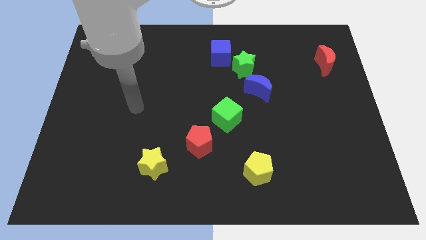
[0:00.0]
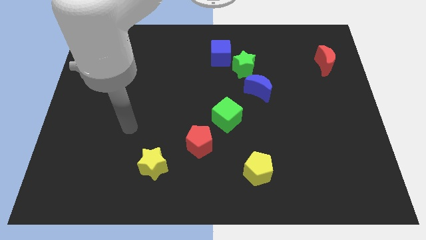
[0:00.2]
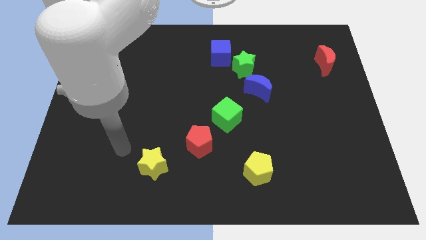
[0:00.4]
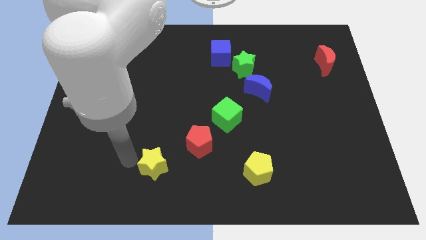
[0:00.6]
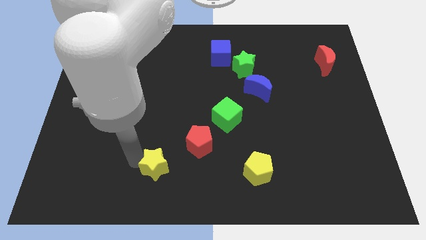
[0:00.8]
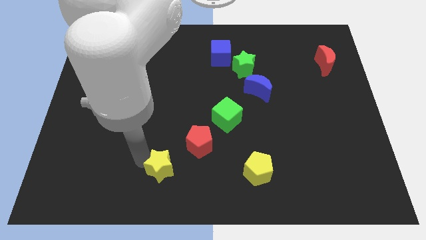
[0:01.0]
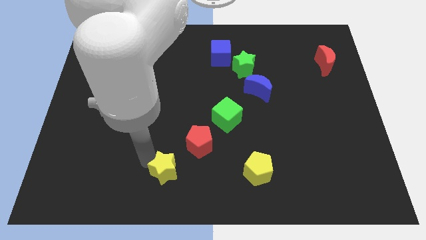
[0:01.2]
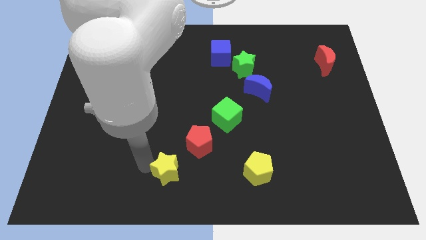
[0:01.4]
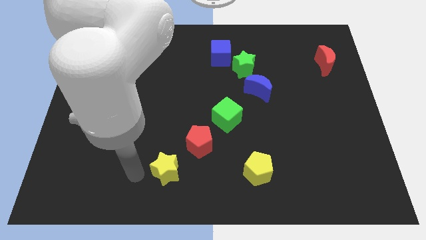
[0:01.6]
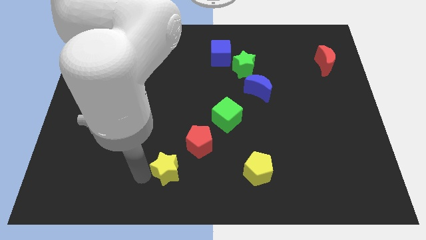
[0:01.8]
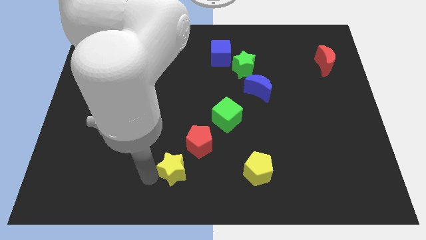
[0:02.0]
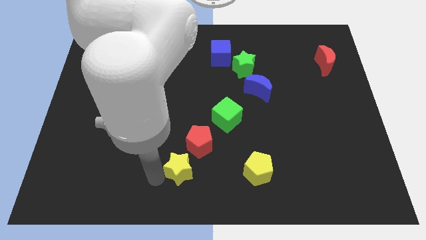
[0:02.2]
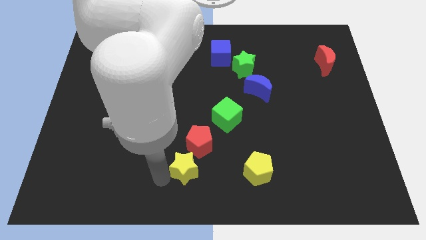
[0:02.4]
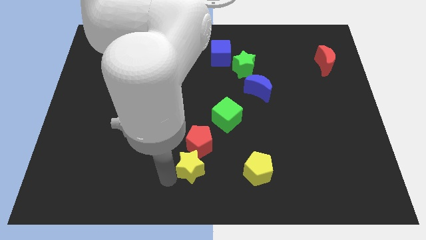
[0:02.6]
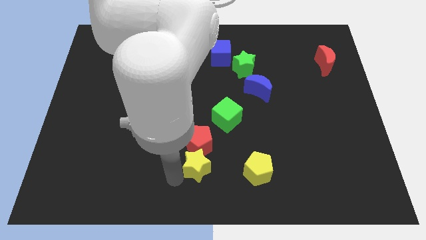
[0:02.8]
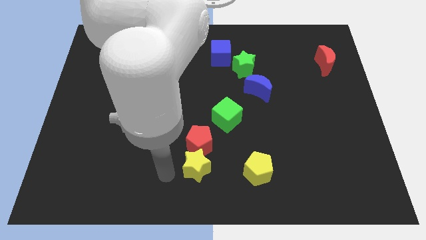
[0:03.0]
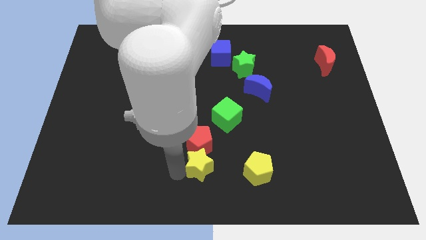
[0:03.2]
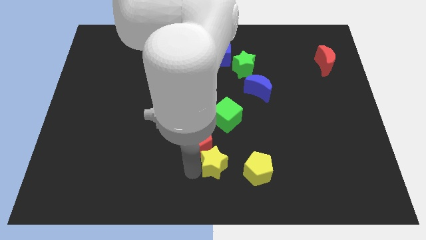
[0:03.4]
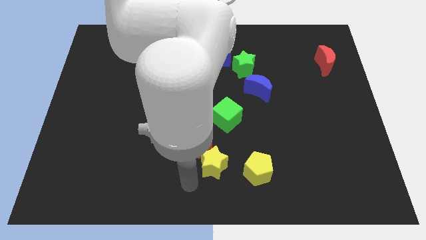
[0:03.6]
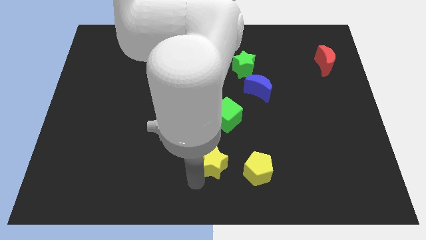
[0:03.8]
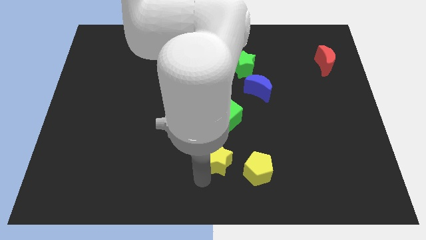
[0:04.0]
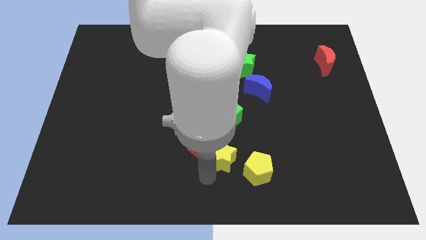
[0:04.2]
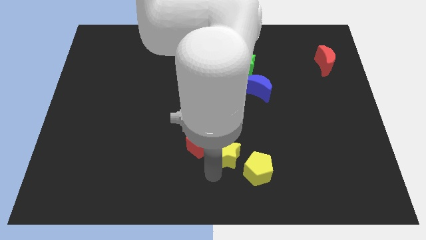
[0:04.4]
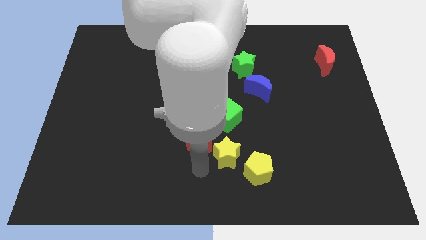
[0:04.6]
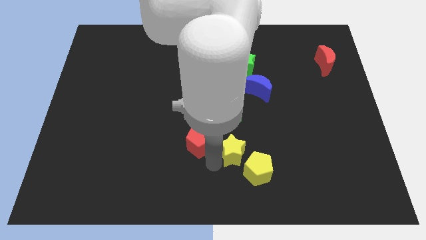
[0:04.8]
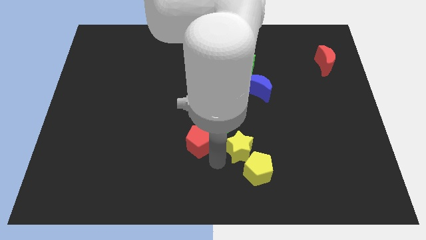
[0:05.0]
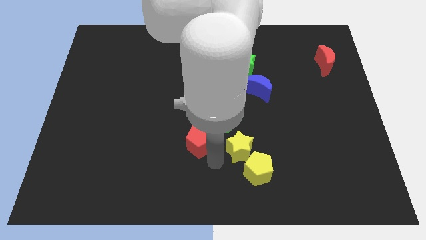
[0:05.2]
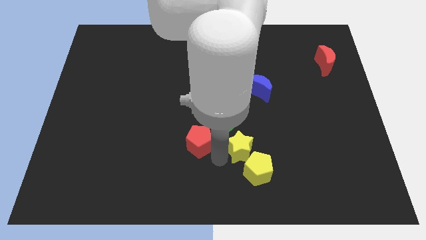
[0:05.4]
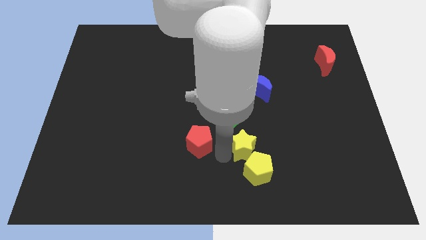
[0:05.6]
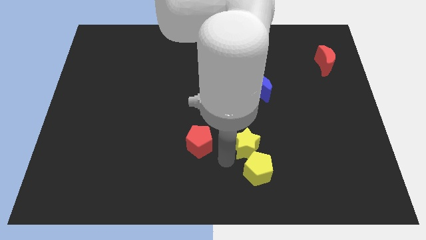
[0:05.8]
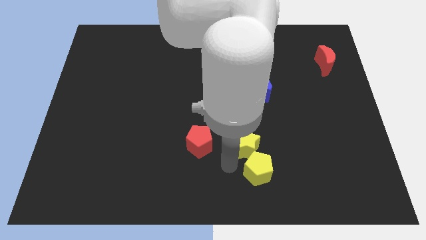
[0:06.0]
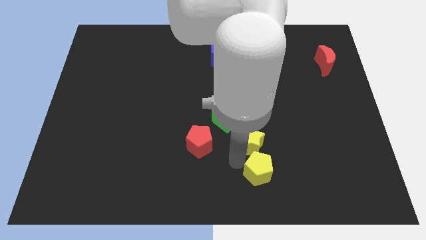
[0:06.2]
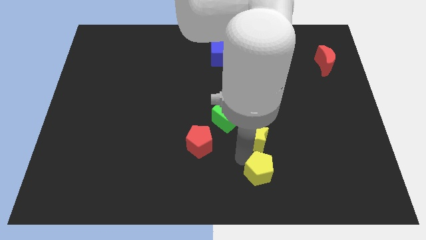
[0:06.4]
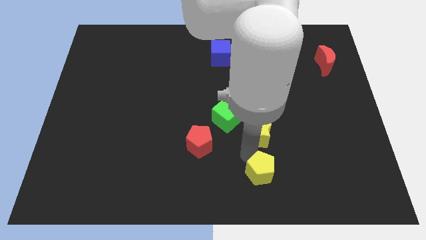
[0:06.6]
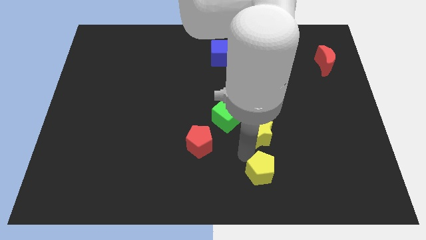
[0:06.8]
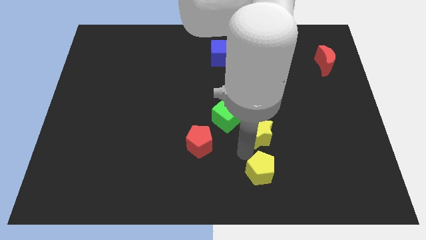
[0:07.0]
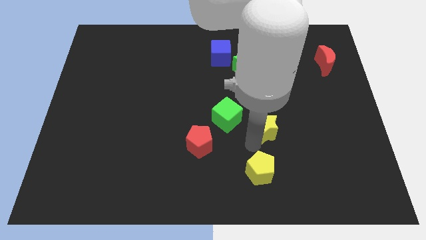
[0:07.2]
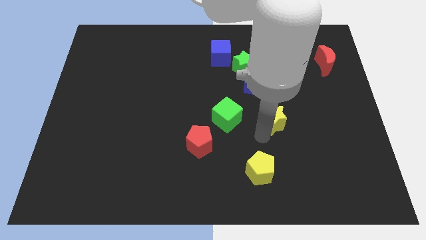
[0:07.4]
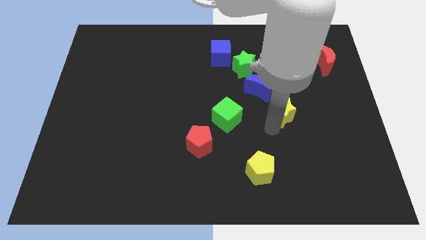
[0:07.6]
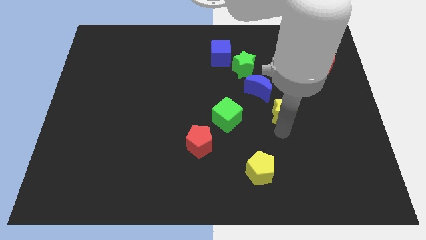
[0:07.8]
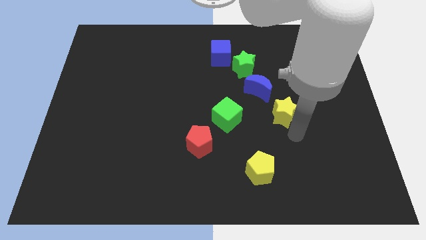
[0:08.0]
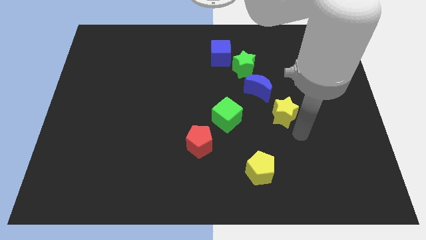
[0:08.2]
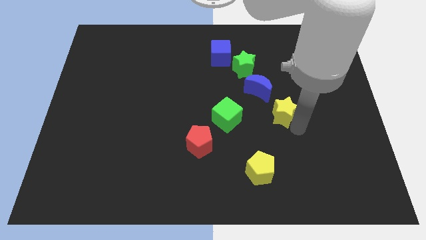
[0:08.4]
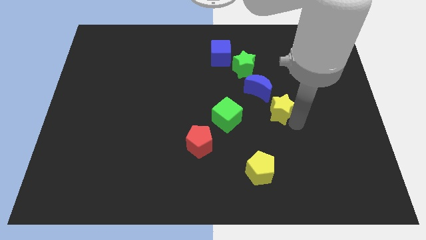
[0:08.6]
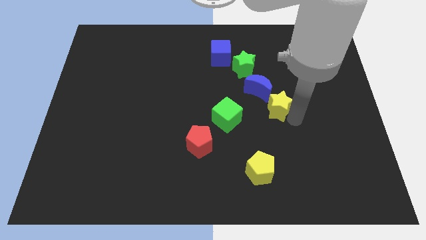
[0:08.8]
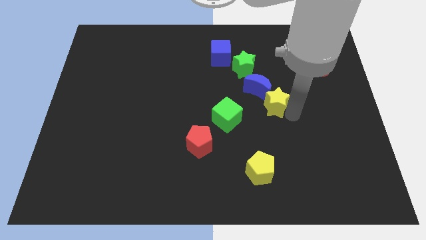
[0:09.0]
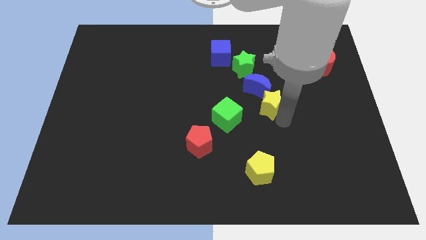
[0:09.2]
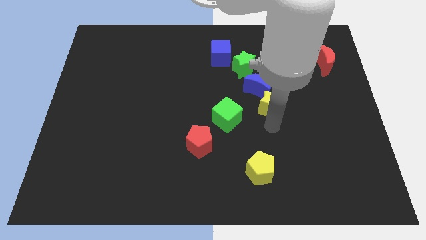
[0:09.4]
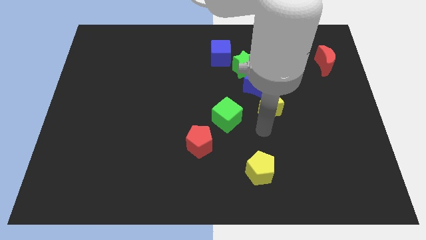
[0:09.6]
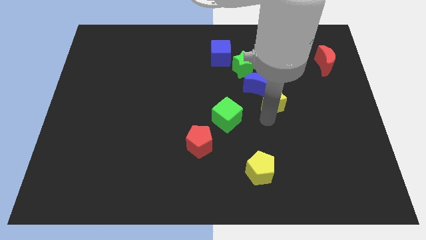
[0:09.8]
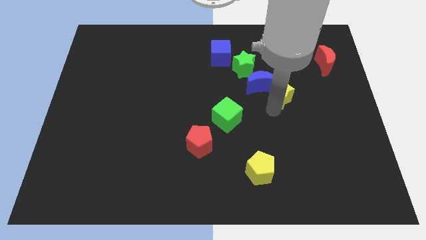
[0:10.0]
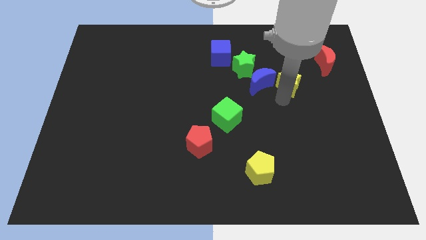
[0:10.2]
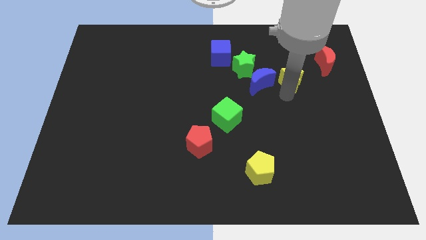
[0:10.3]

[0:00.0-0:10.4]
put the yellow star diagonally up and to the right of the blue moon

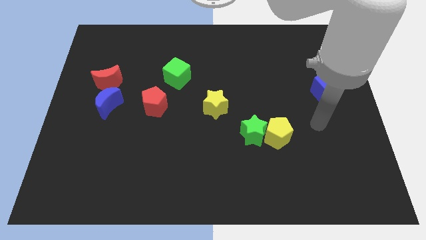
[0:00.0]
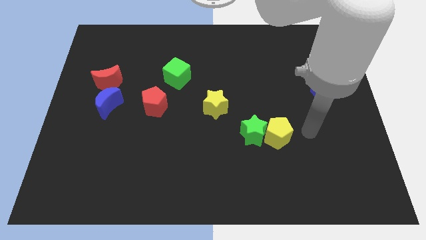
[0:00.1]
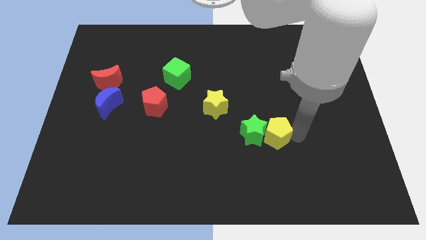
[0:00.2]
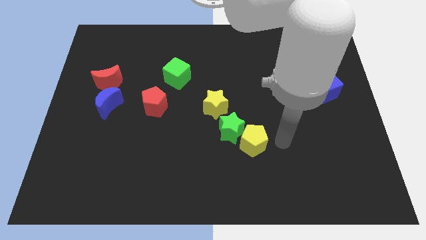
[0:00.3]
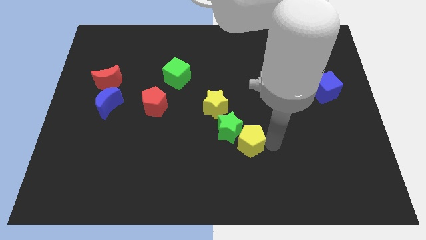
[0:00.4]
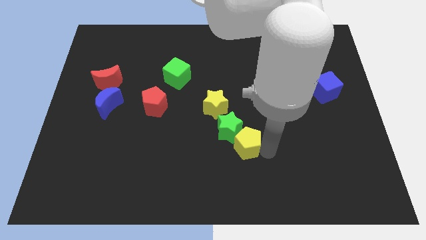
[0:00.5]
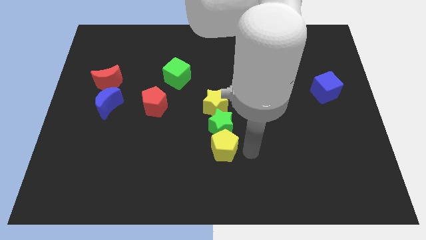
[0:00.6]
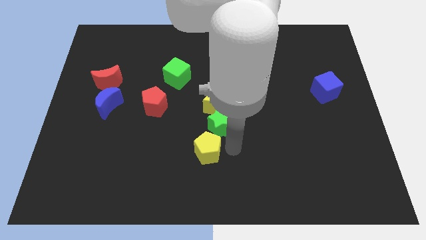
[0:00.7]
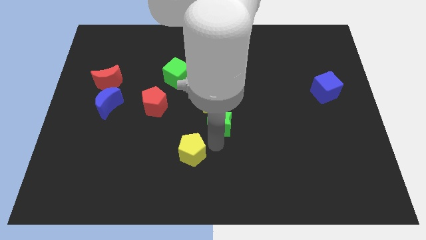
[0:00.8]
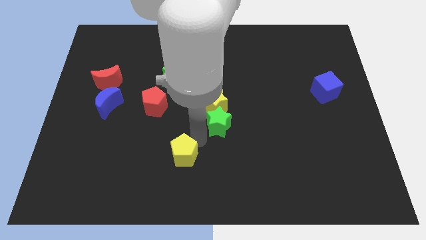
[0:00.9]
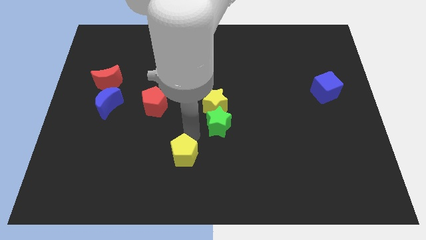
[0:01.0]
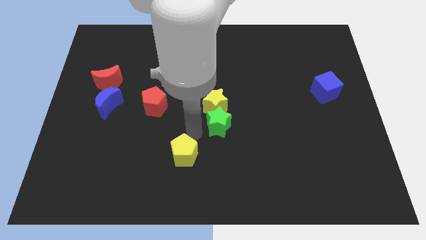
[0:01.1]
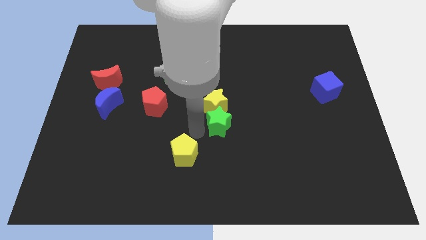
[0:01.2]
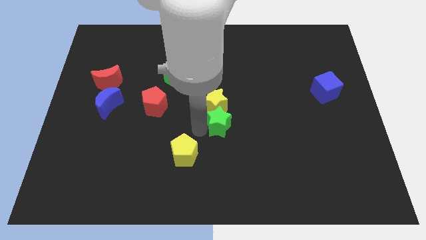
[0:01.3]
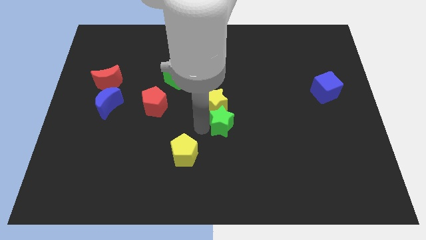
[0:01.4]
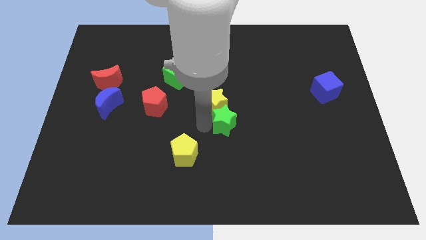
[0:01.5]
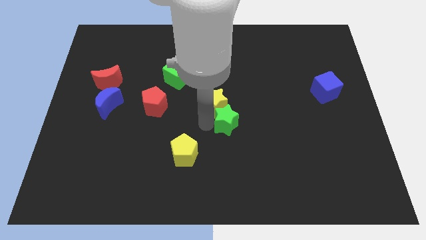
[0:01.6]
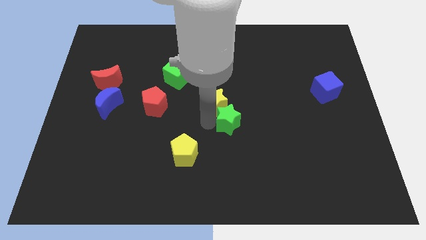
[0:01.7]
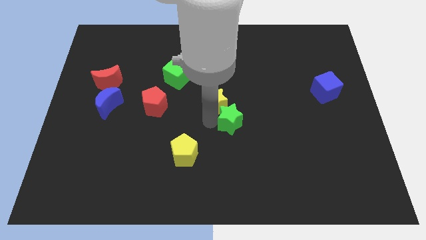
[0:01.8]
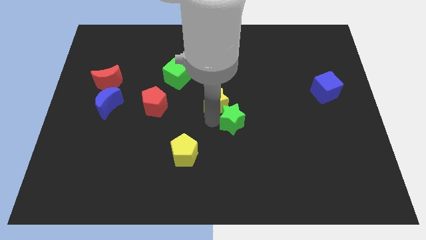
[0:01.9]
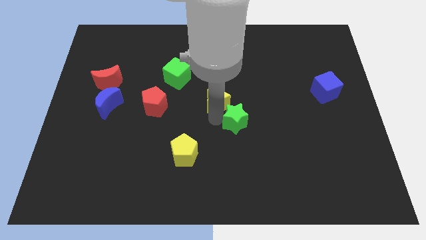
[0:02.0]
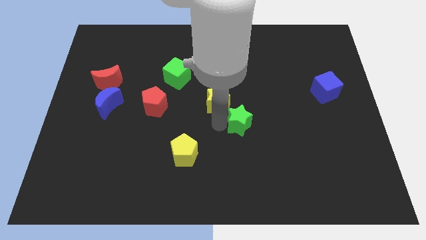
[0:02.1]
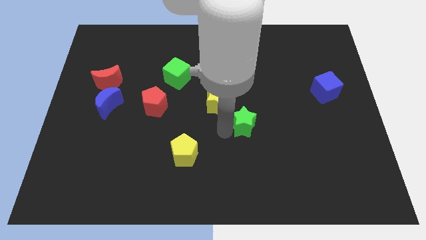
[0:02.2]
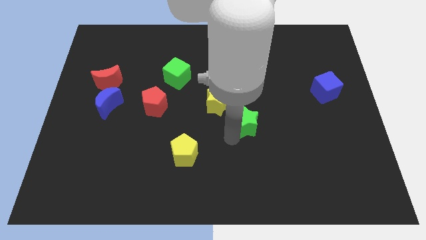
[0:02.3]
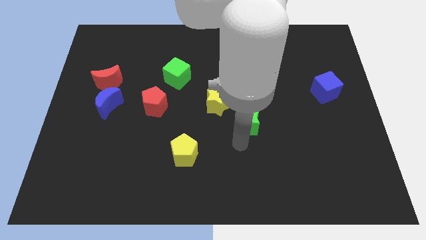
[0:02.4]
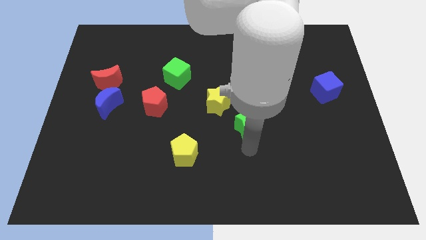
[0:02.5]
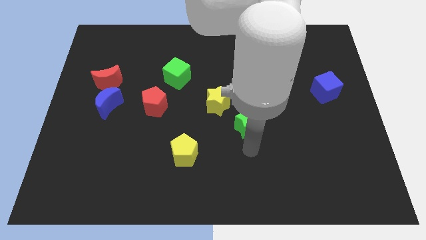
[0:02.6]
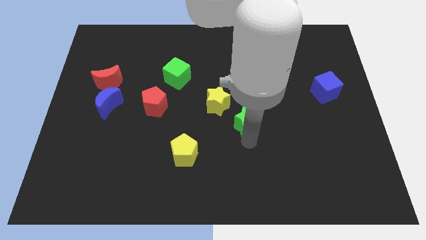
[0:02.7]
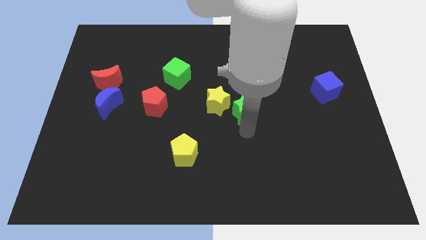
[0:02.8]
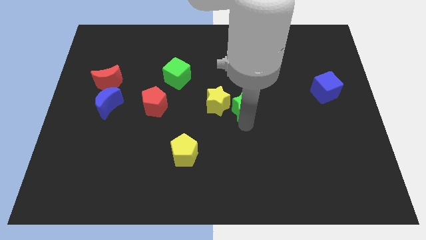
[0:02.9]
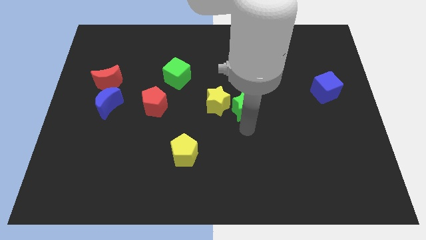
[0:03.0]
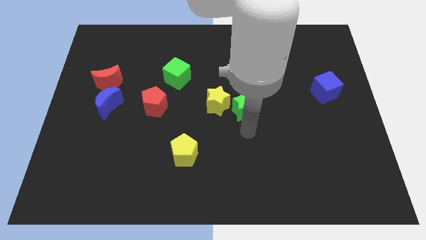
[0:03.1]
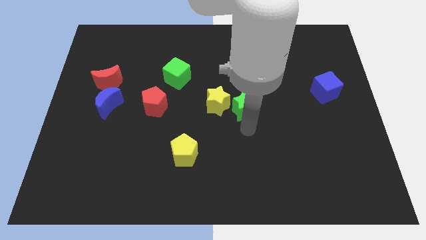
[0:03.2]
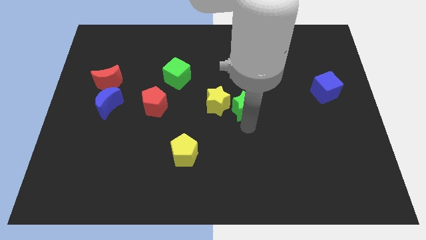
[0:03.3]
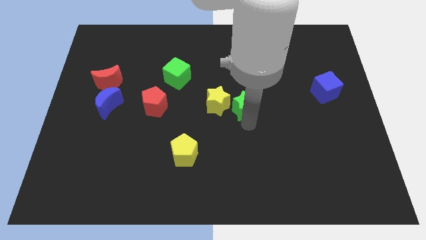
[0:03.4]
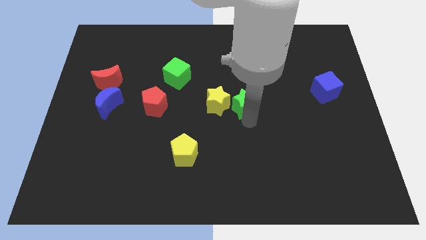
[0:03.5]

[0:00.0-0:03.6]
move the green star diagonally up and to the right of the yellow star
